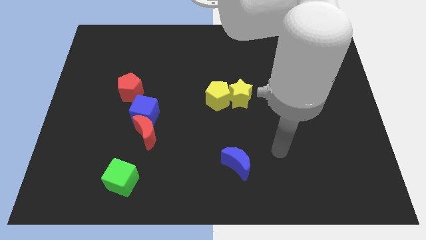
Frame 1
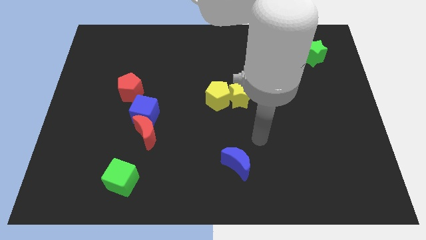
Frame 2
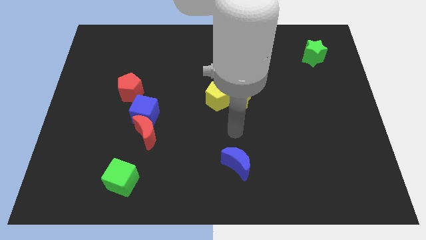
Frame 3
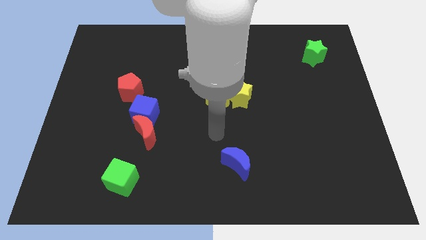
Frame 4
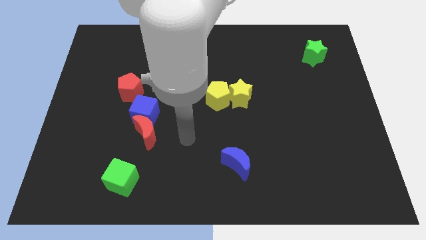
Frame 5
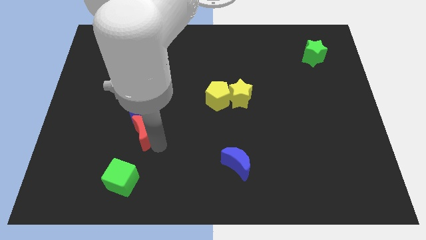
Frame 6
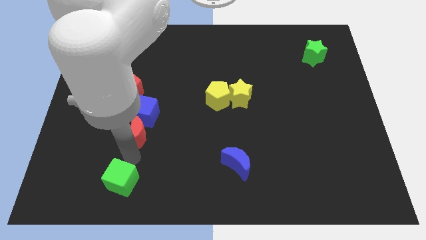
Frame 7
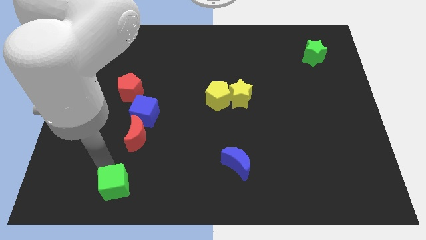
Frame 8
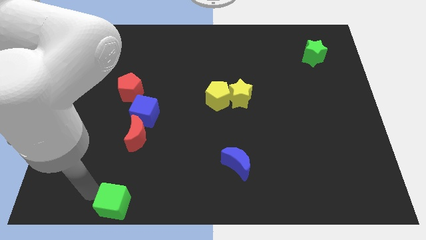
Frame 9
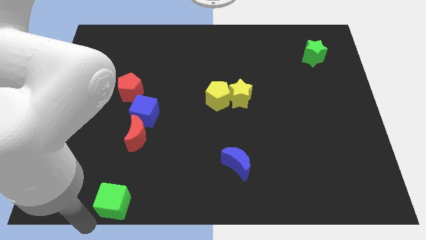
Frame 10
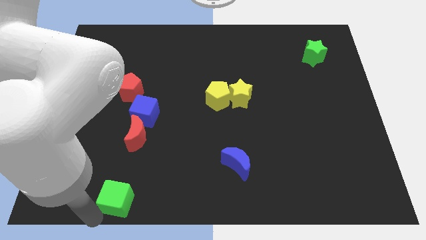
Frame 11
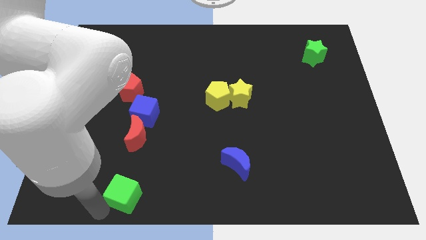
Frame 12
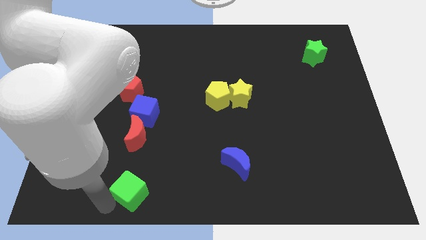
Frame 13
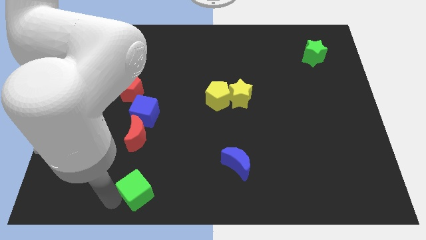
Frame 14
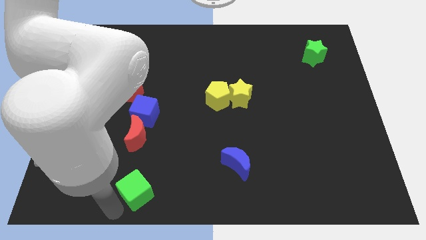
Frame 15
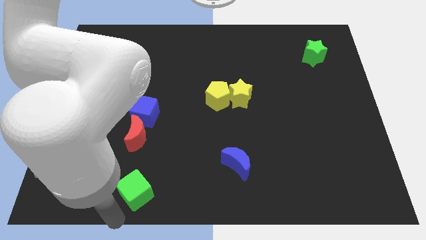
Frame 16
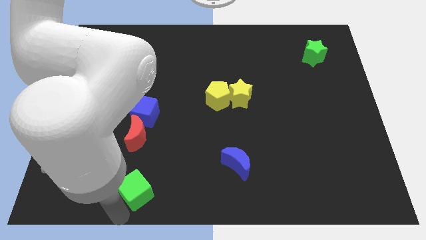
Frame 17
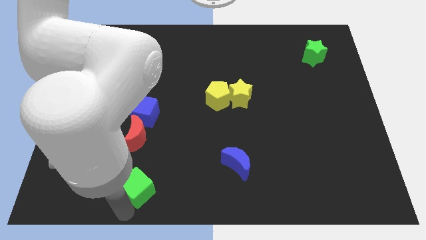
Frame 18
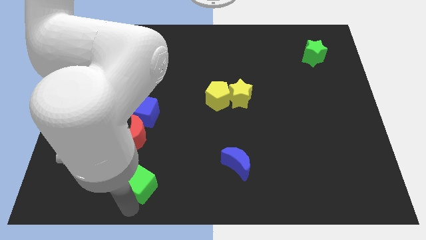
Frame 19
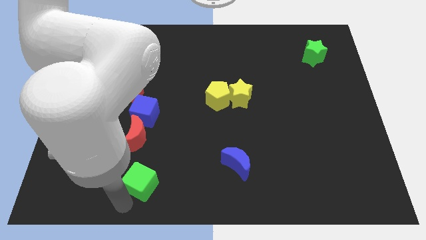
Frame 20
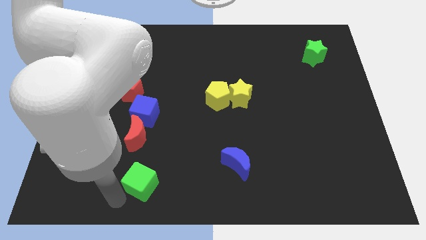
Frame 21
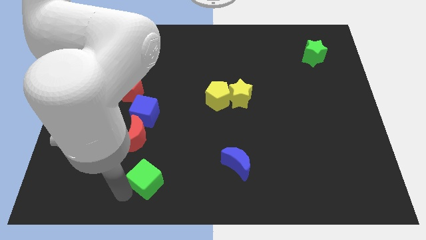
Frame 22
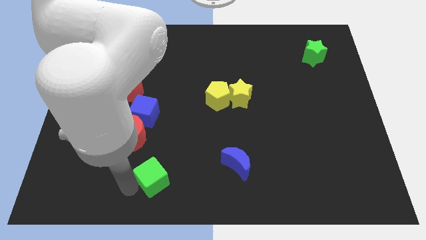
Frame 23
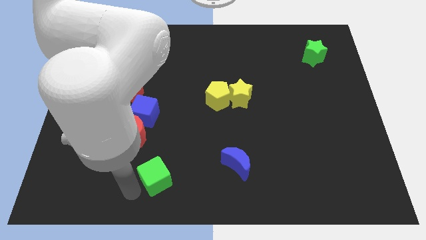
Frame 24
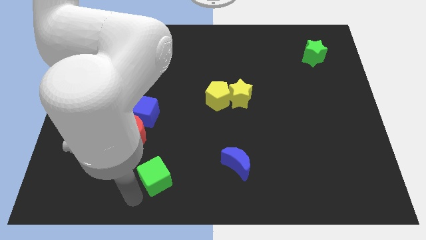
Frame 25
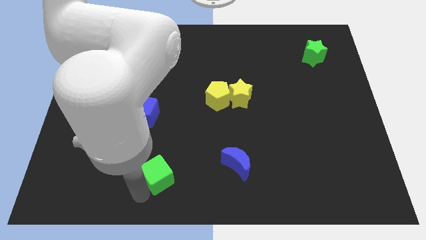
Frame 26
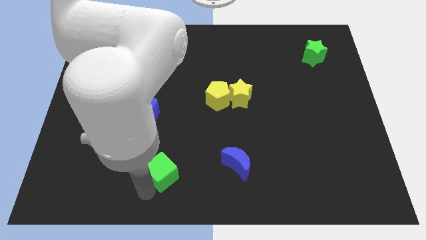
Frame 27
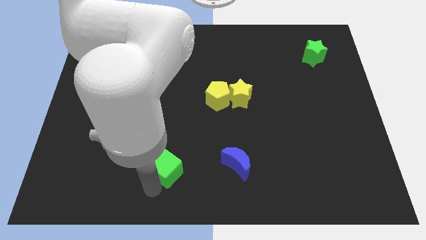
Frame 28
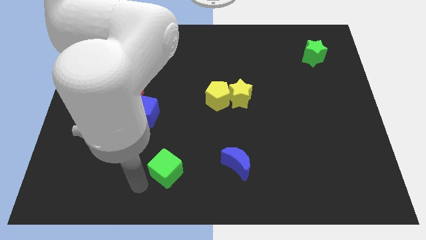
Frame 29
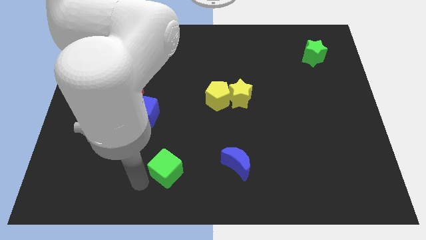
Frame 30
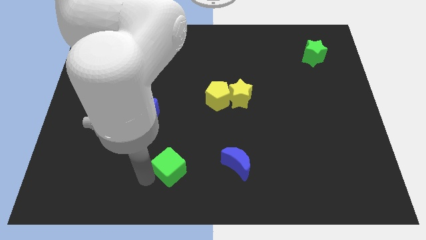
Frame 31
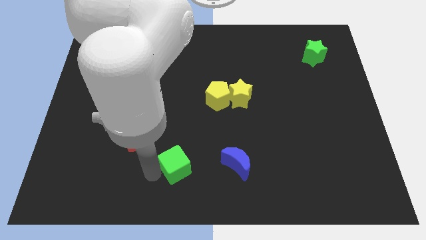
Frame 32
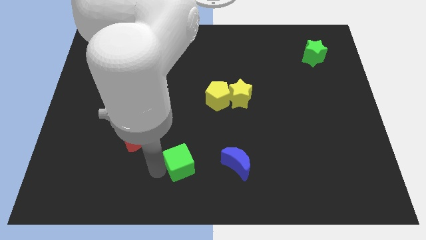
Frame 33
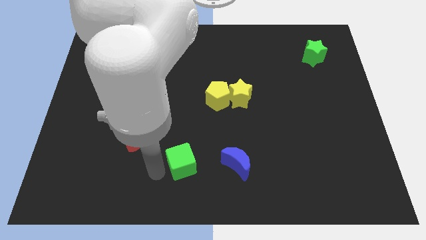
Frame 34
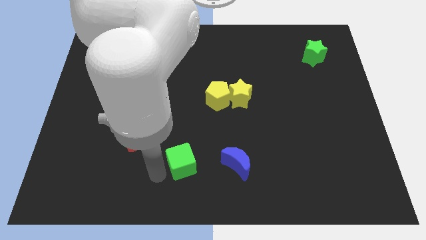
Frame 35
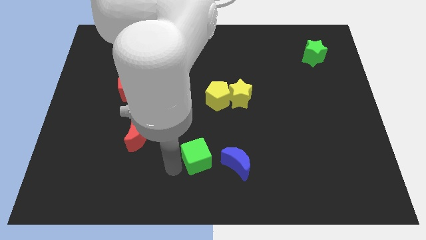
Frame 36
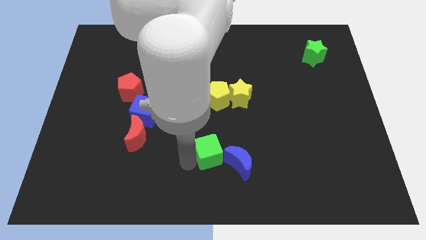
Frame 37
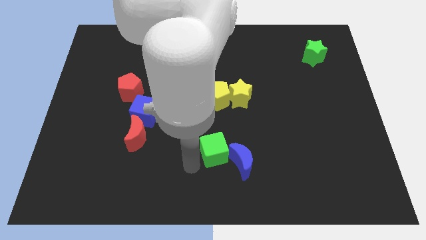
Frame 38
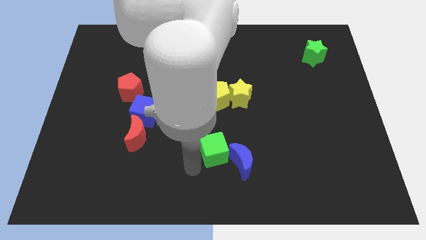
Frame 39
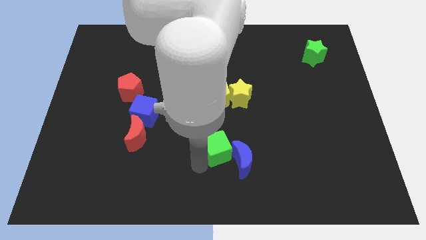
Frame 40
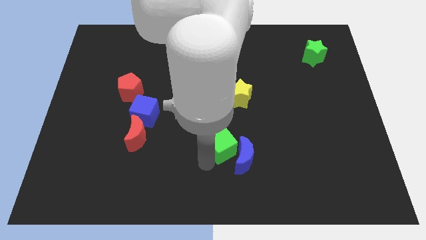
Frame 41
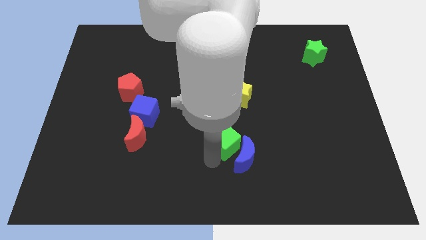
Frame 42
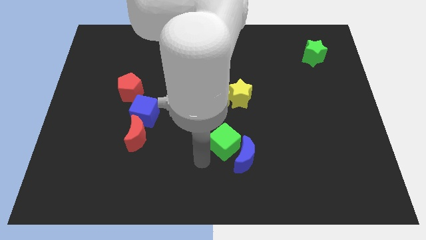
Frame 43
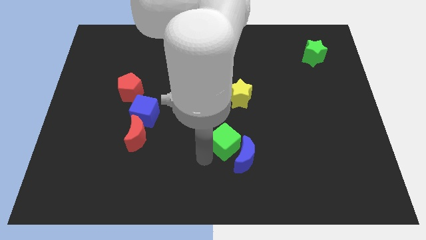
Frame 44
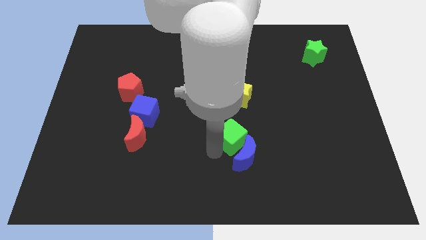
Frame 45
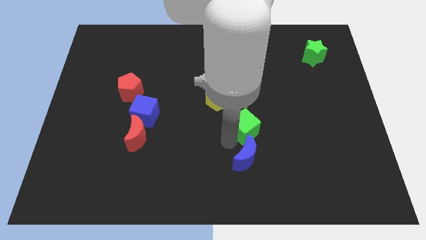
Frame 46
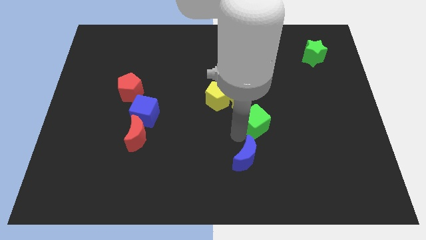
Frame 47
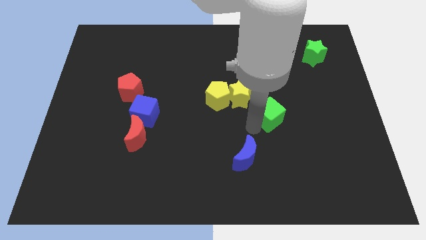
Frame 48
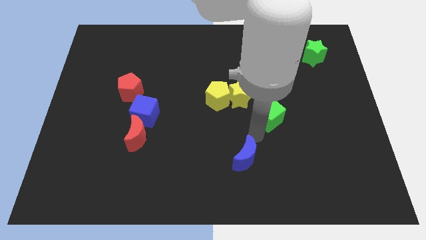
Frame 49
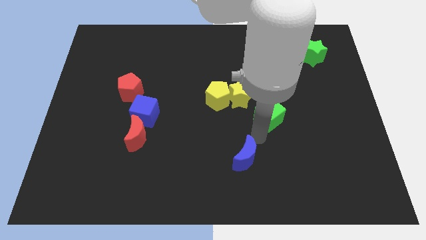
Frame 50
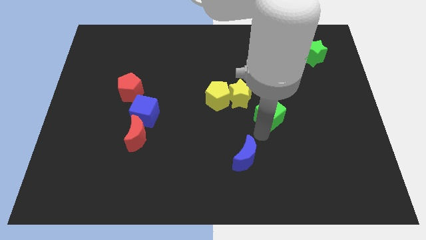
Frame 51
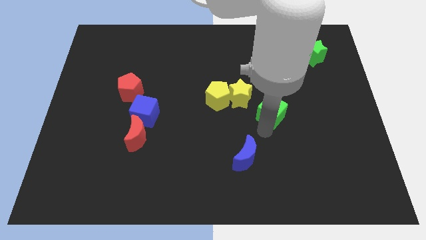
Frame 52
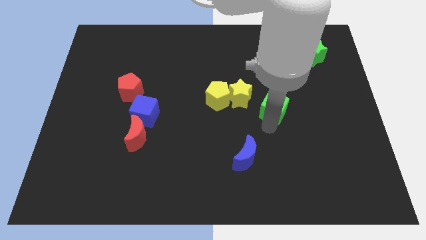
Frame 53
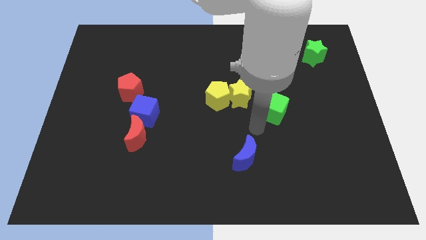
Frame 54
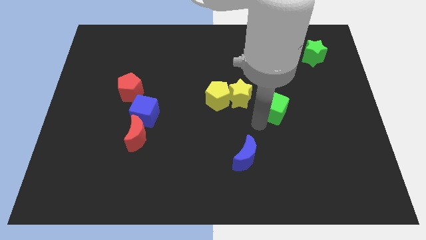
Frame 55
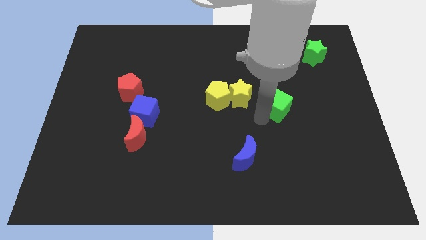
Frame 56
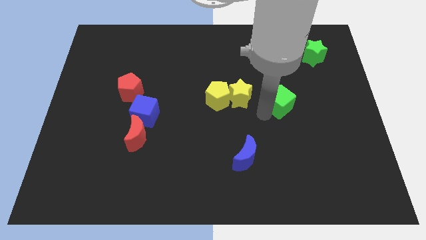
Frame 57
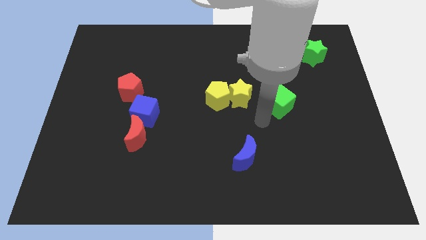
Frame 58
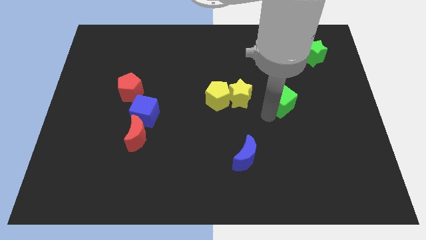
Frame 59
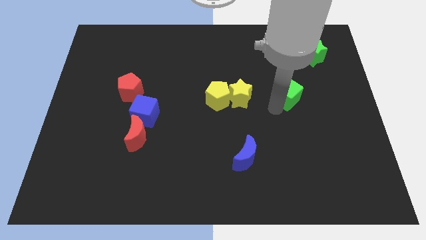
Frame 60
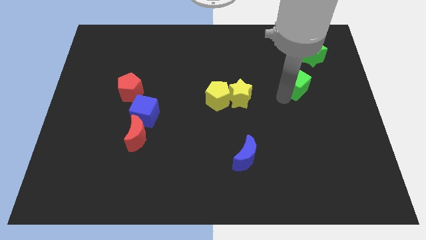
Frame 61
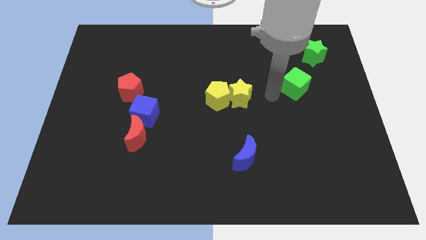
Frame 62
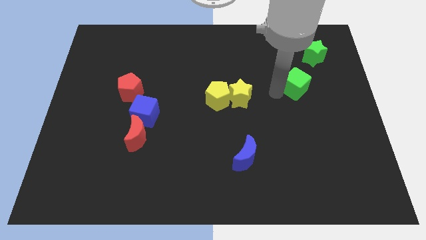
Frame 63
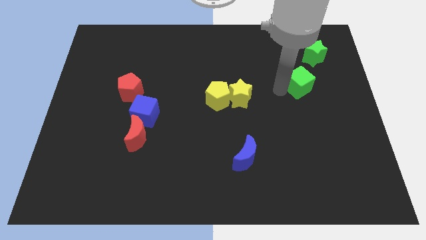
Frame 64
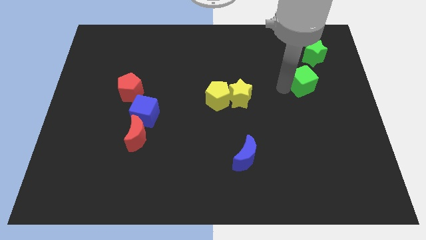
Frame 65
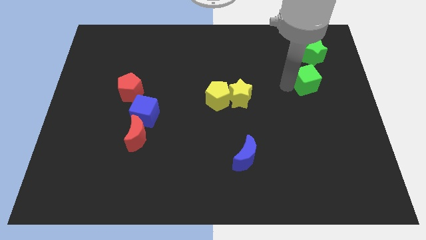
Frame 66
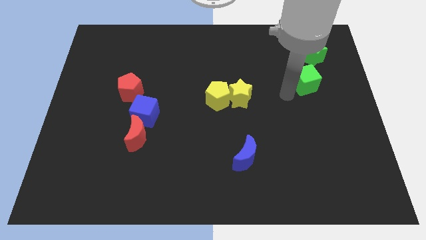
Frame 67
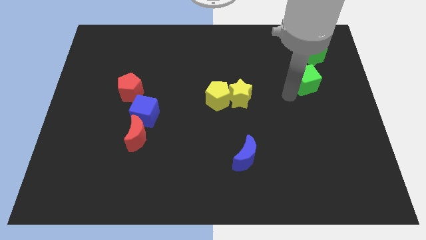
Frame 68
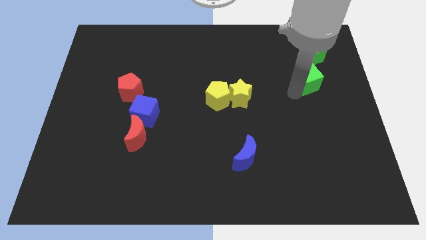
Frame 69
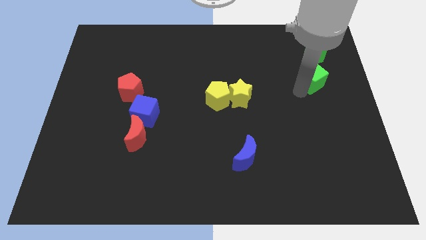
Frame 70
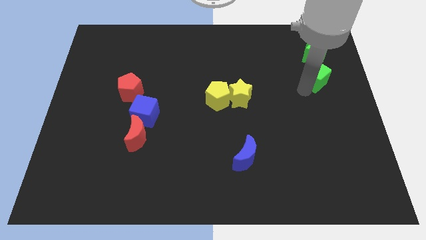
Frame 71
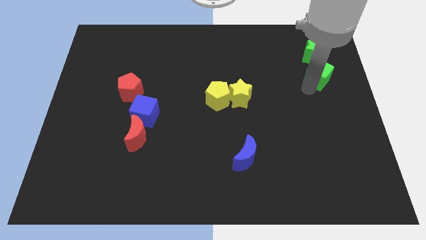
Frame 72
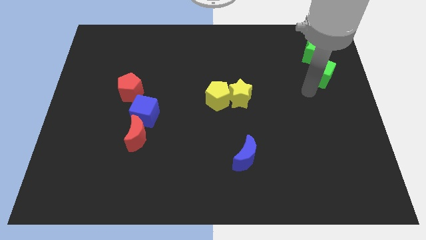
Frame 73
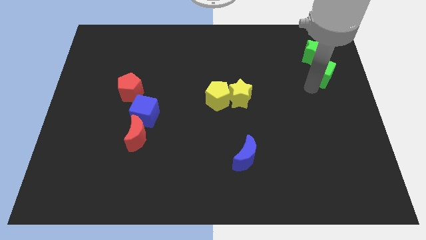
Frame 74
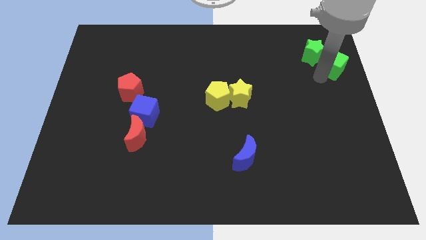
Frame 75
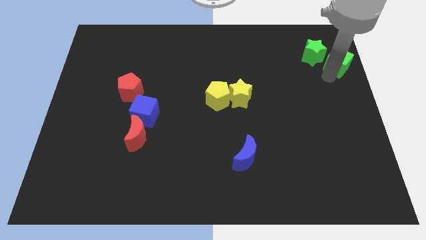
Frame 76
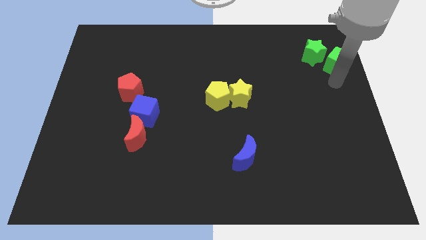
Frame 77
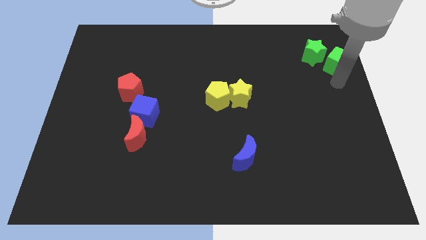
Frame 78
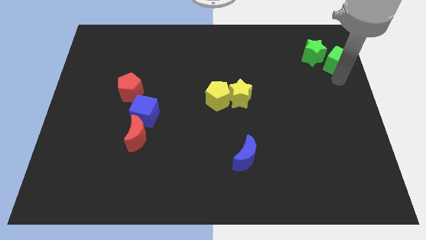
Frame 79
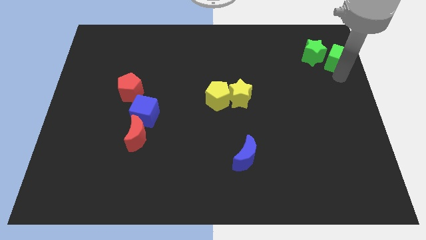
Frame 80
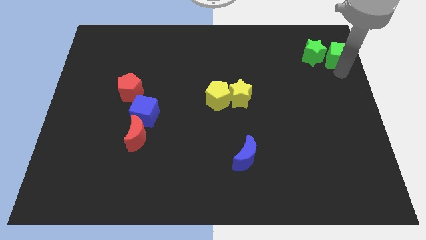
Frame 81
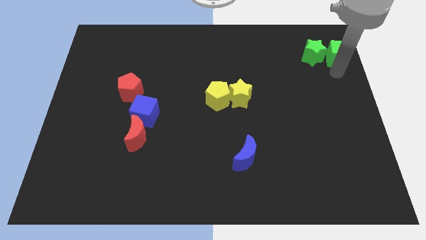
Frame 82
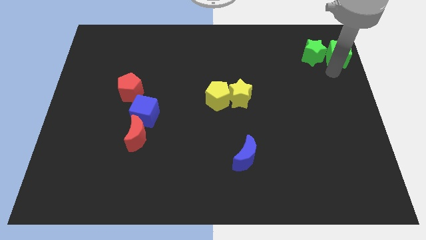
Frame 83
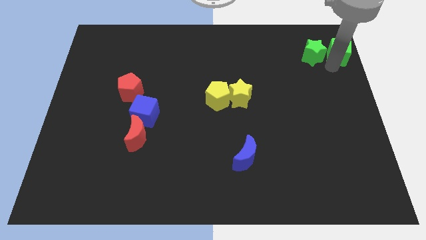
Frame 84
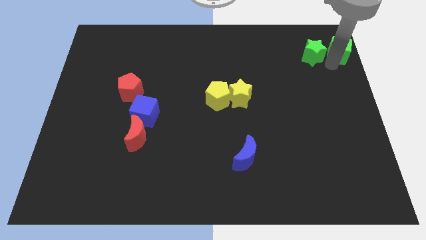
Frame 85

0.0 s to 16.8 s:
slide the green cube to the top right corner
